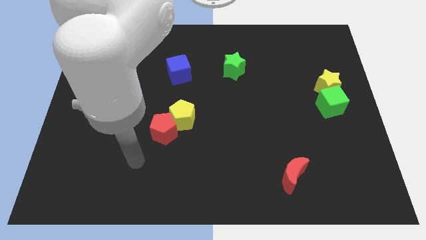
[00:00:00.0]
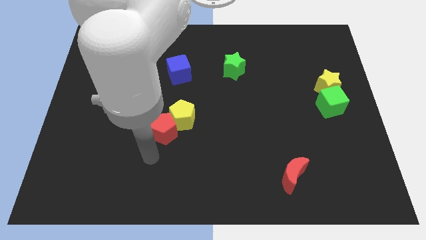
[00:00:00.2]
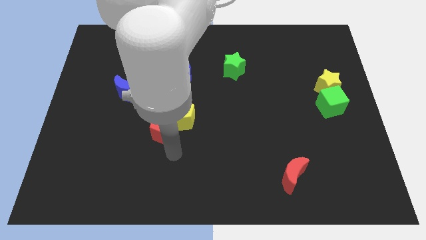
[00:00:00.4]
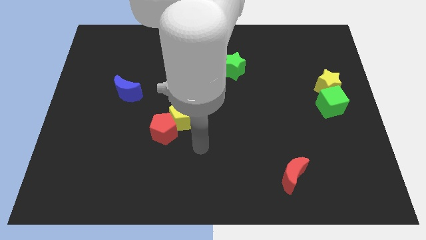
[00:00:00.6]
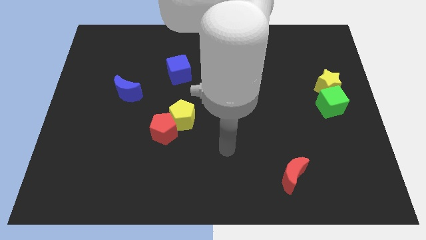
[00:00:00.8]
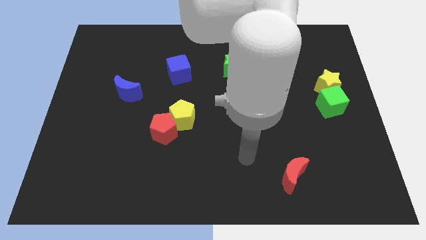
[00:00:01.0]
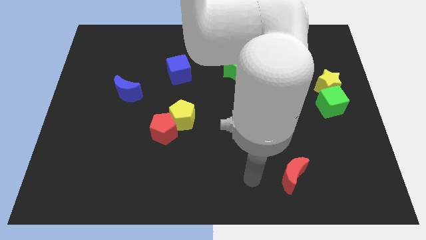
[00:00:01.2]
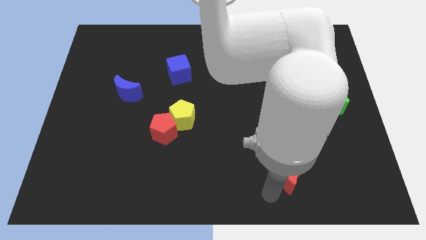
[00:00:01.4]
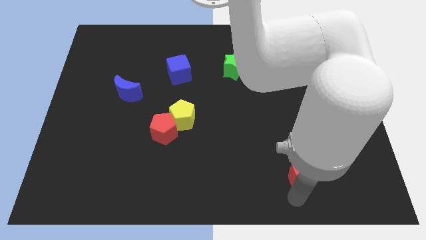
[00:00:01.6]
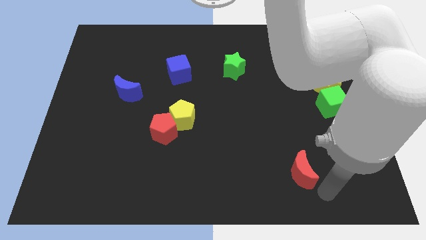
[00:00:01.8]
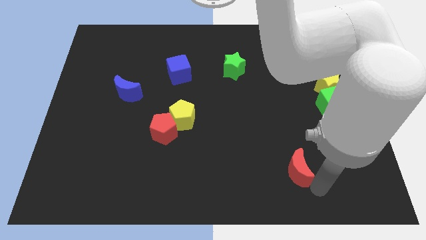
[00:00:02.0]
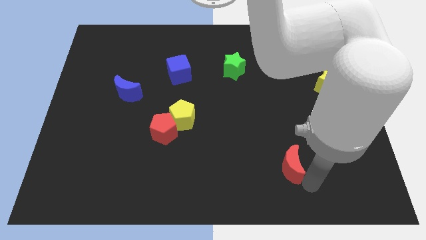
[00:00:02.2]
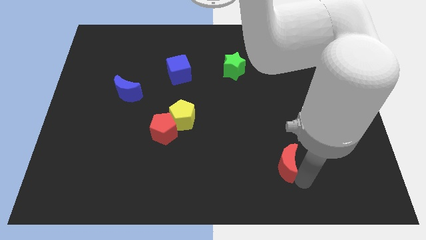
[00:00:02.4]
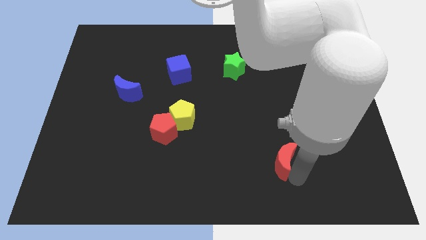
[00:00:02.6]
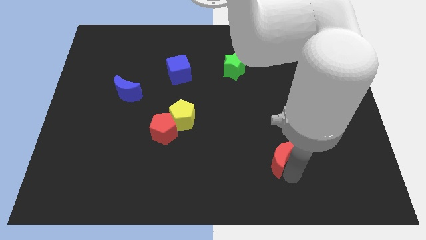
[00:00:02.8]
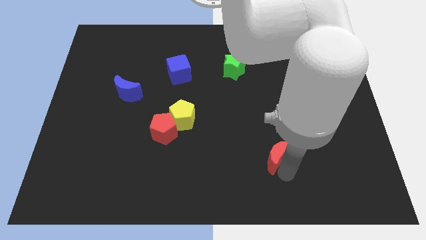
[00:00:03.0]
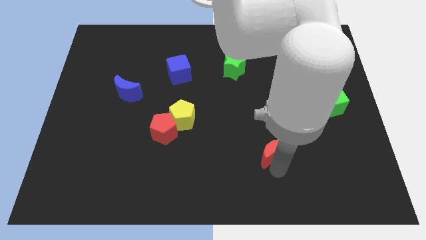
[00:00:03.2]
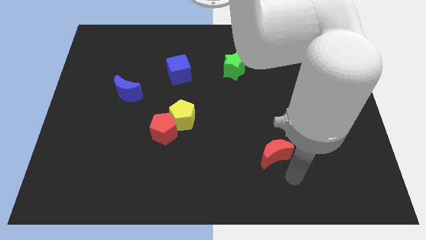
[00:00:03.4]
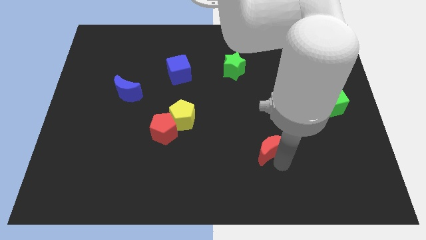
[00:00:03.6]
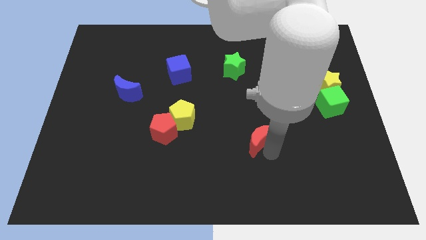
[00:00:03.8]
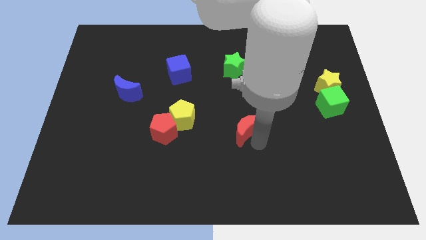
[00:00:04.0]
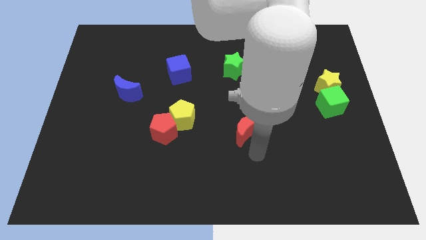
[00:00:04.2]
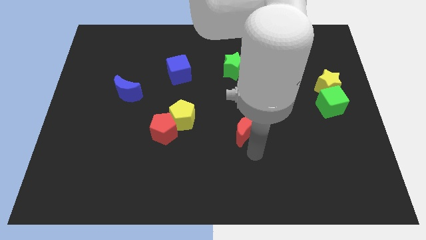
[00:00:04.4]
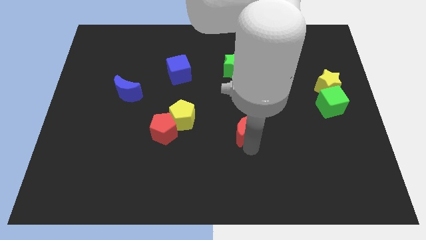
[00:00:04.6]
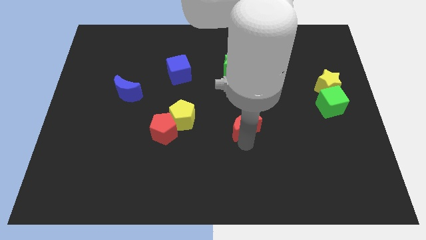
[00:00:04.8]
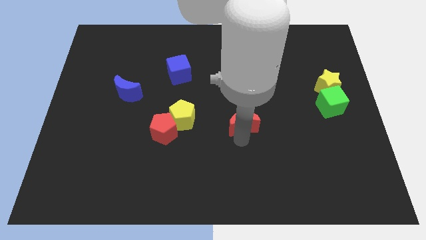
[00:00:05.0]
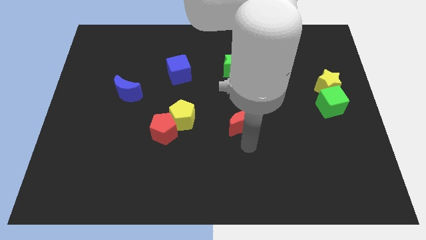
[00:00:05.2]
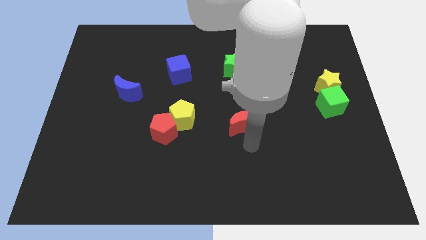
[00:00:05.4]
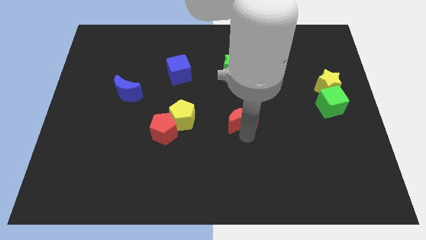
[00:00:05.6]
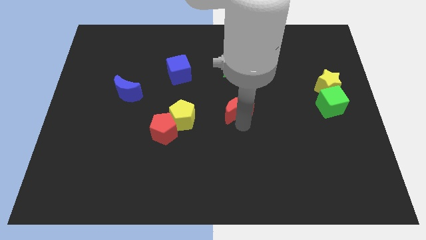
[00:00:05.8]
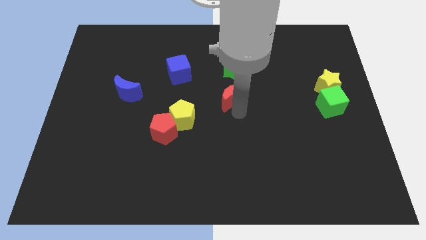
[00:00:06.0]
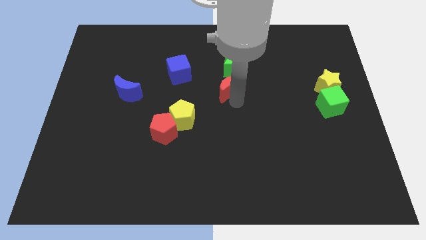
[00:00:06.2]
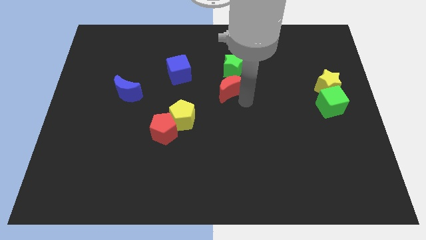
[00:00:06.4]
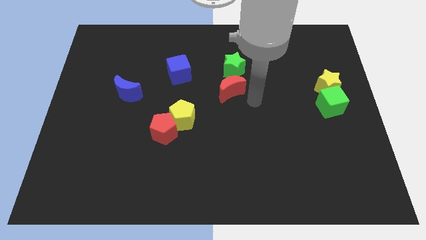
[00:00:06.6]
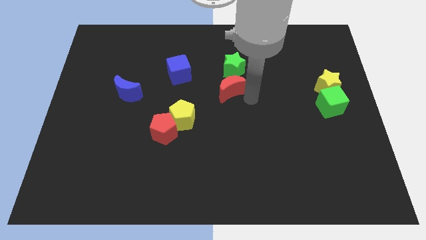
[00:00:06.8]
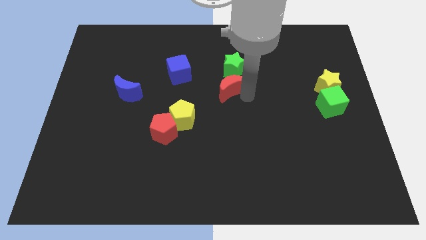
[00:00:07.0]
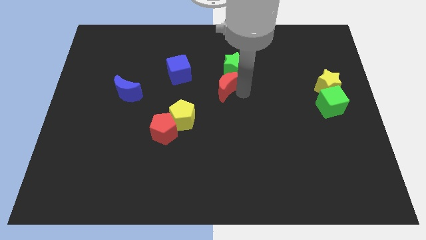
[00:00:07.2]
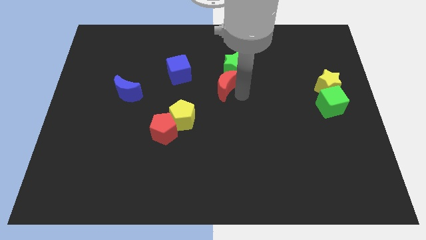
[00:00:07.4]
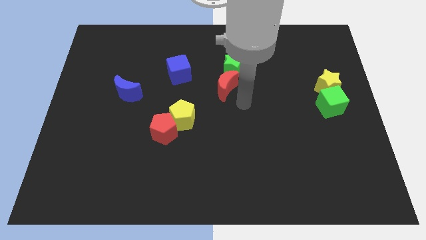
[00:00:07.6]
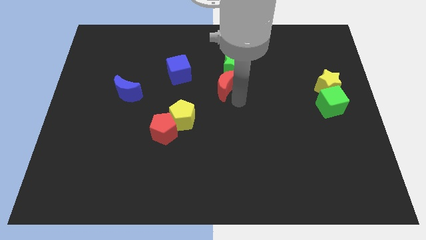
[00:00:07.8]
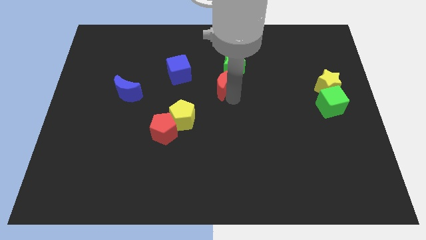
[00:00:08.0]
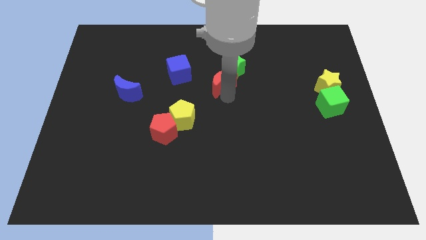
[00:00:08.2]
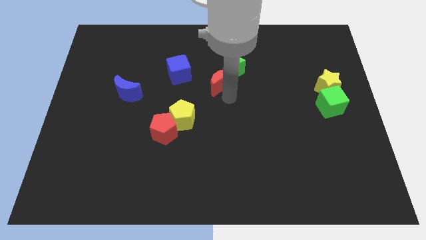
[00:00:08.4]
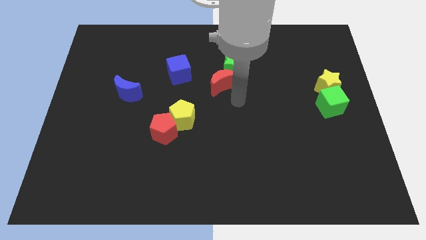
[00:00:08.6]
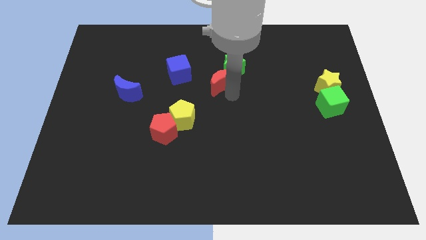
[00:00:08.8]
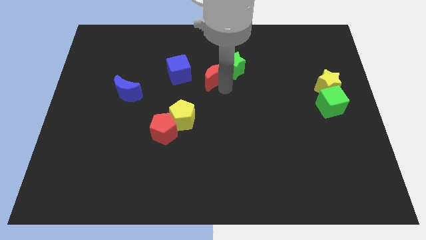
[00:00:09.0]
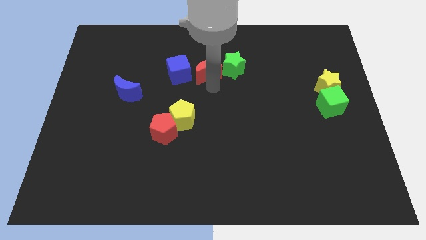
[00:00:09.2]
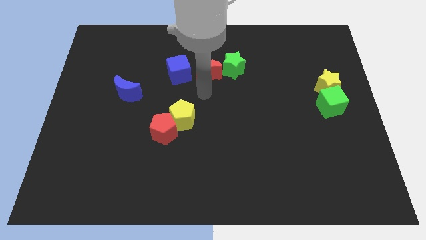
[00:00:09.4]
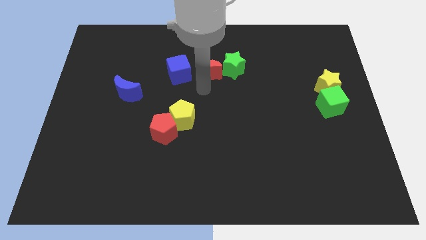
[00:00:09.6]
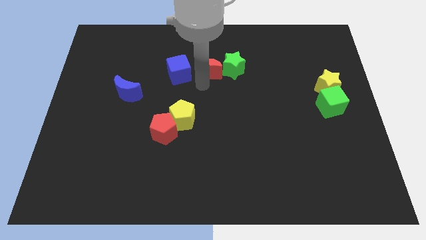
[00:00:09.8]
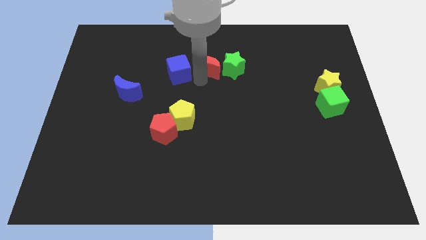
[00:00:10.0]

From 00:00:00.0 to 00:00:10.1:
put the red moon to the top left of the green star

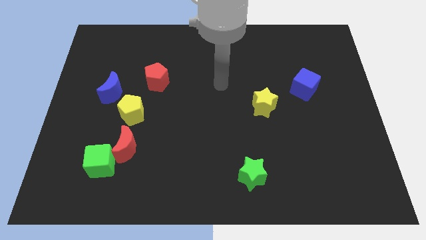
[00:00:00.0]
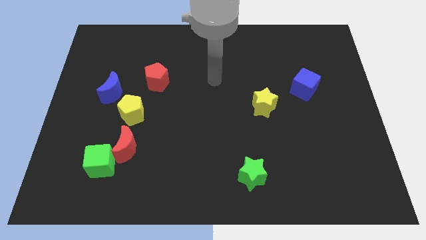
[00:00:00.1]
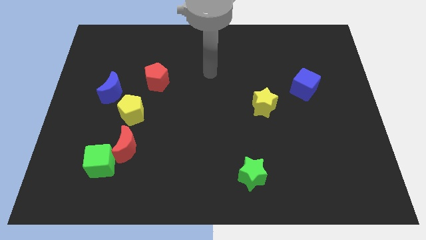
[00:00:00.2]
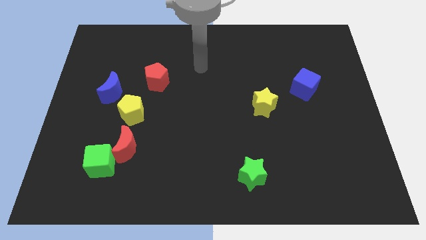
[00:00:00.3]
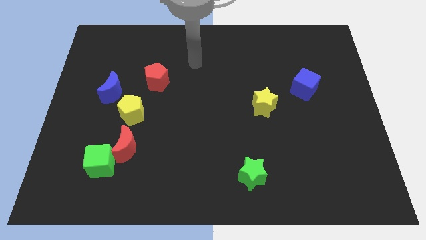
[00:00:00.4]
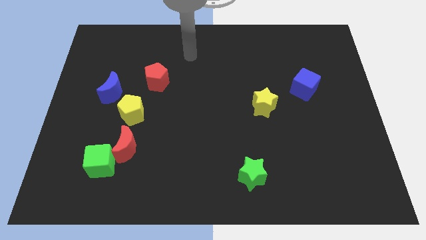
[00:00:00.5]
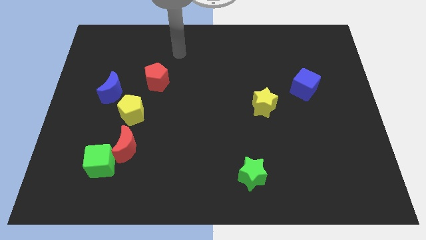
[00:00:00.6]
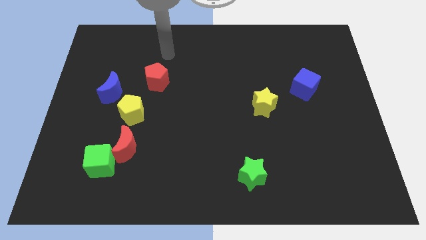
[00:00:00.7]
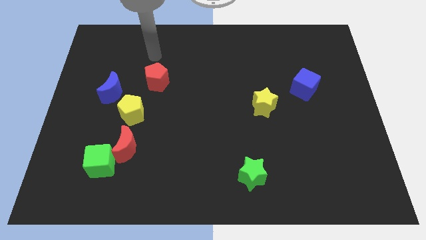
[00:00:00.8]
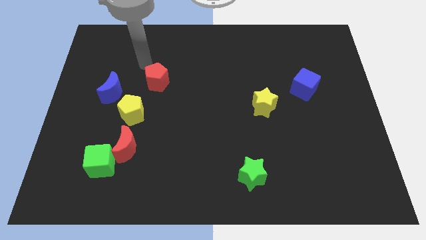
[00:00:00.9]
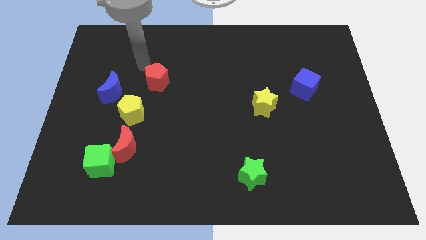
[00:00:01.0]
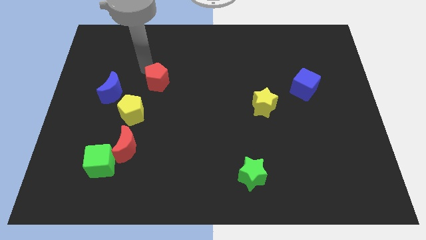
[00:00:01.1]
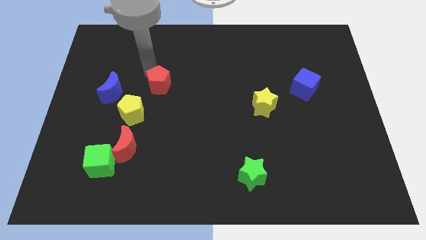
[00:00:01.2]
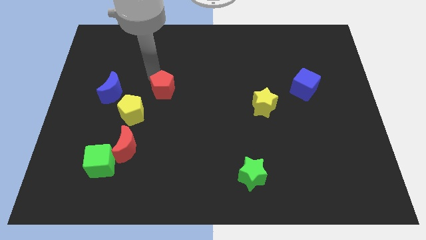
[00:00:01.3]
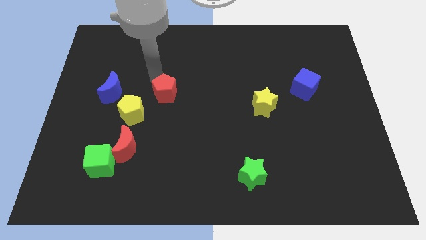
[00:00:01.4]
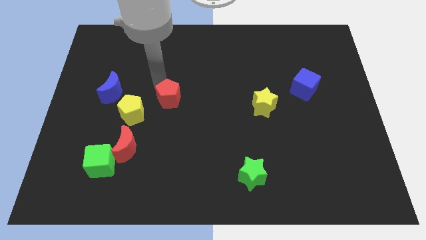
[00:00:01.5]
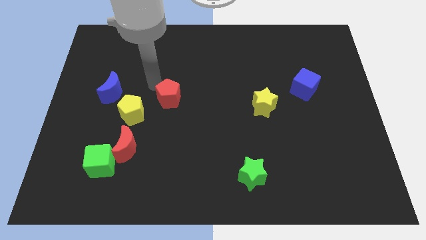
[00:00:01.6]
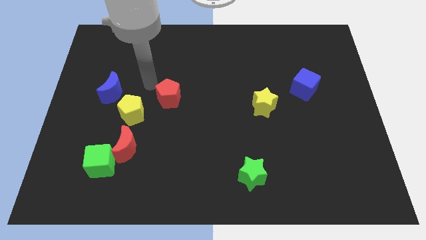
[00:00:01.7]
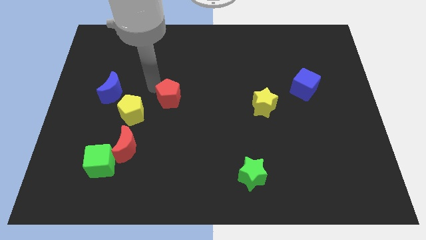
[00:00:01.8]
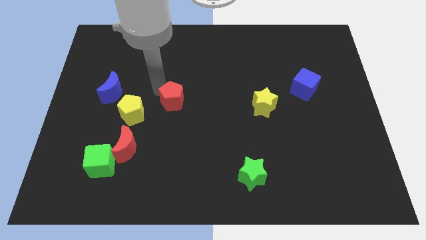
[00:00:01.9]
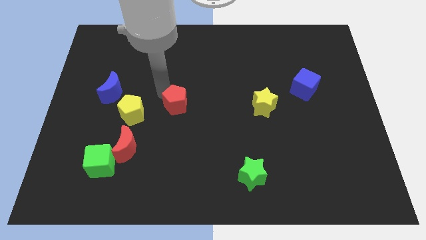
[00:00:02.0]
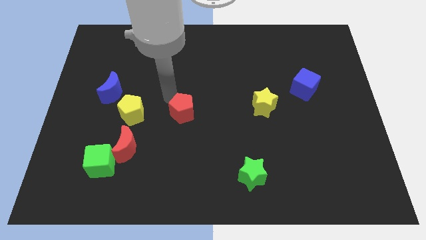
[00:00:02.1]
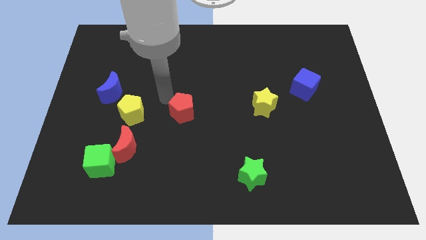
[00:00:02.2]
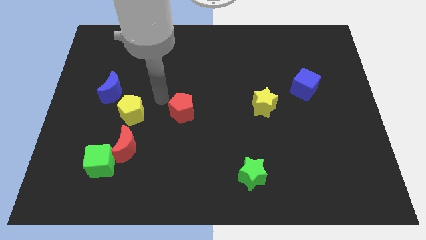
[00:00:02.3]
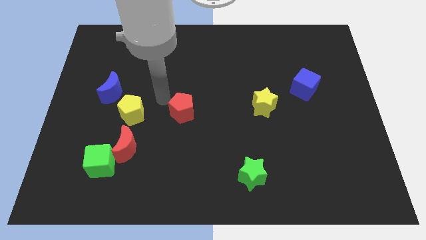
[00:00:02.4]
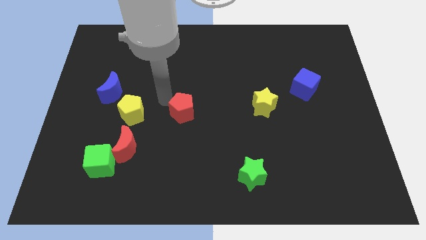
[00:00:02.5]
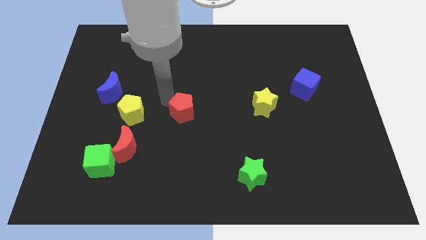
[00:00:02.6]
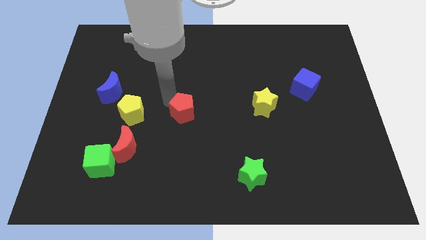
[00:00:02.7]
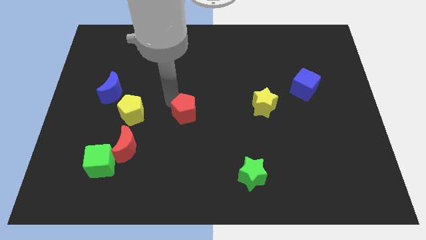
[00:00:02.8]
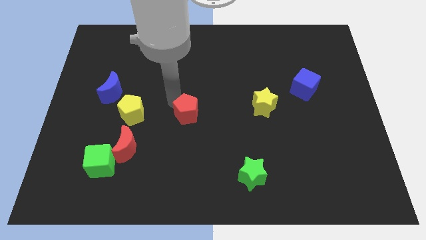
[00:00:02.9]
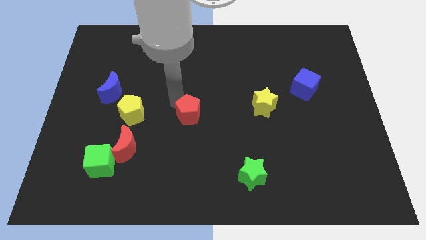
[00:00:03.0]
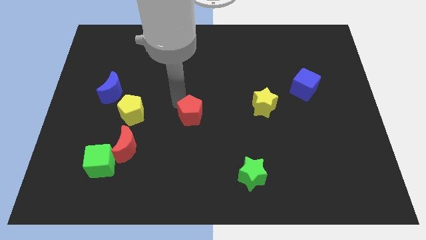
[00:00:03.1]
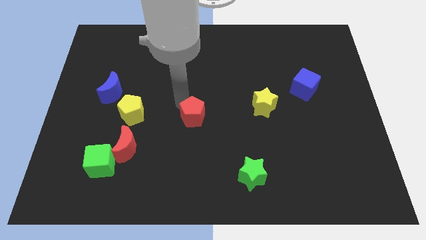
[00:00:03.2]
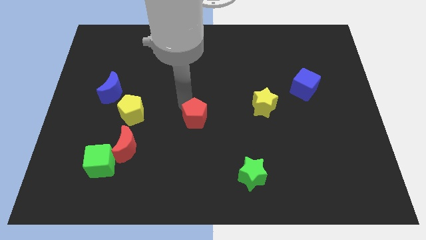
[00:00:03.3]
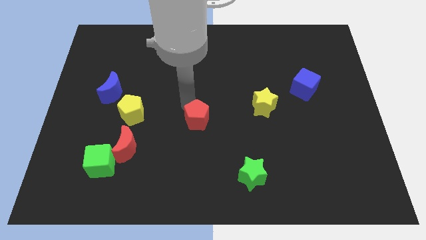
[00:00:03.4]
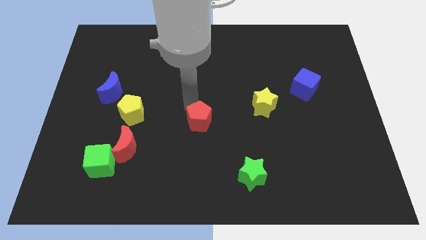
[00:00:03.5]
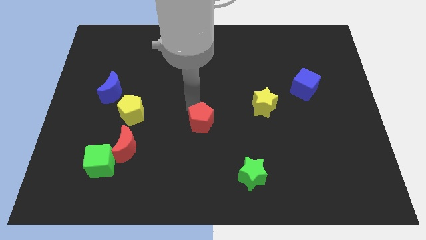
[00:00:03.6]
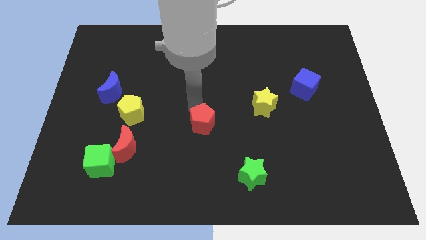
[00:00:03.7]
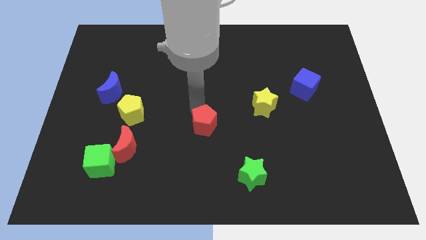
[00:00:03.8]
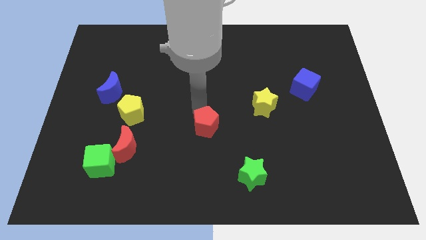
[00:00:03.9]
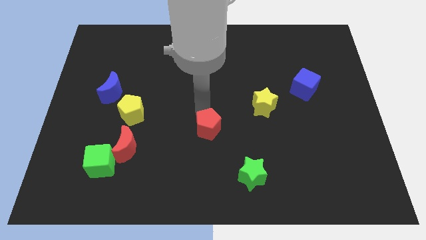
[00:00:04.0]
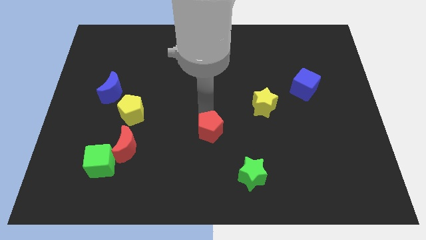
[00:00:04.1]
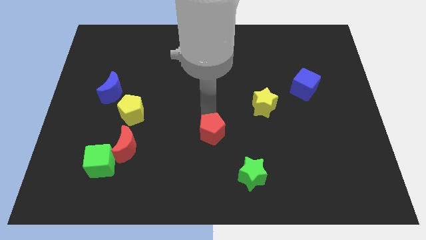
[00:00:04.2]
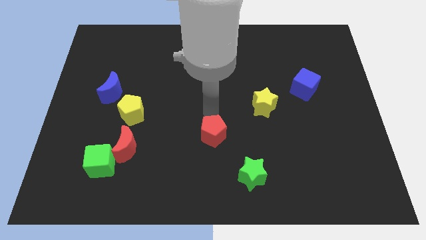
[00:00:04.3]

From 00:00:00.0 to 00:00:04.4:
put the red pentagon to the top left of the green star
